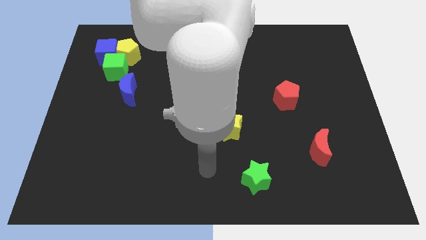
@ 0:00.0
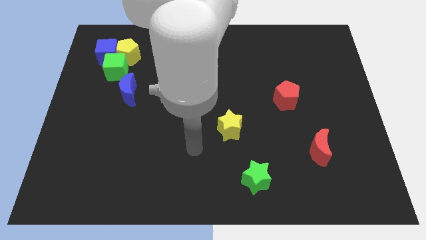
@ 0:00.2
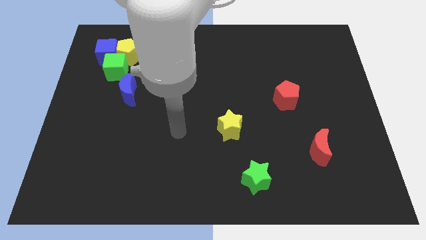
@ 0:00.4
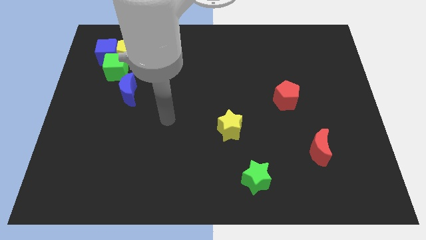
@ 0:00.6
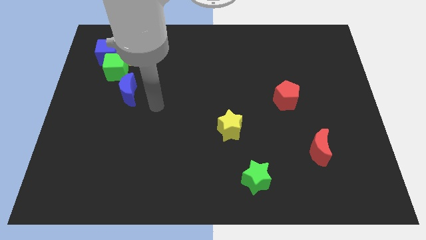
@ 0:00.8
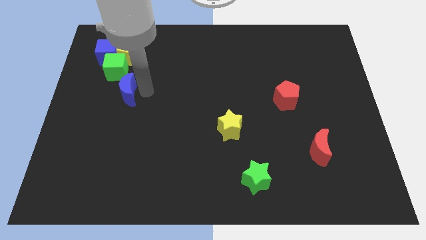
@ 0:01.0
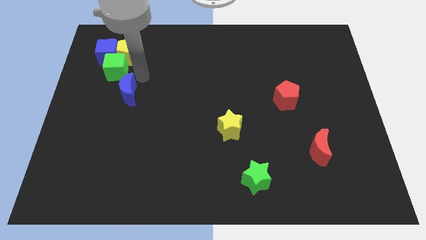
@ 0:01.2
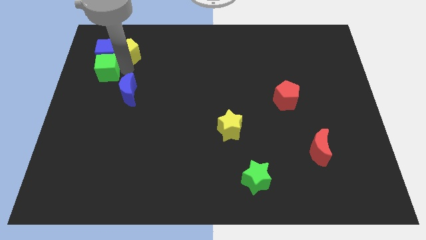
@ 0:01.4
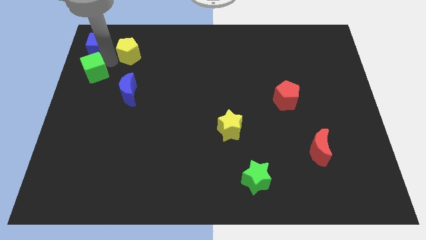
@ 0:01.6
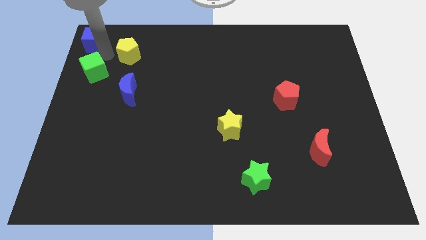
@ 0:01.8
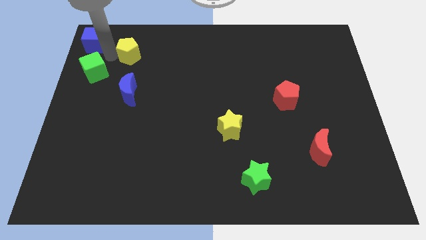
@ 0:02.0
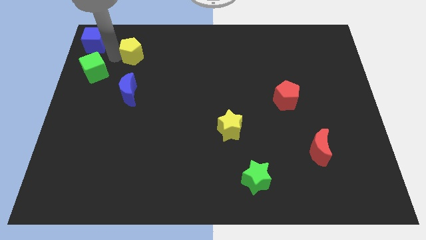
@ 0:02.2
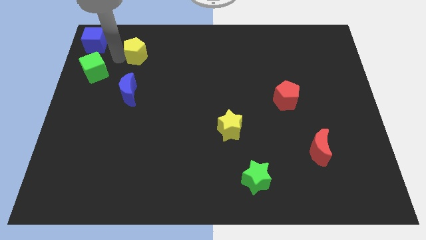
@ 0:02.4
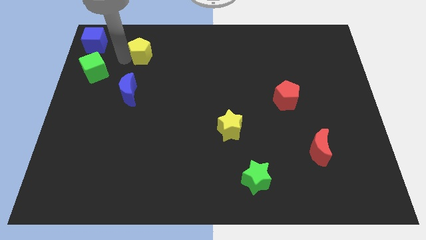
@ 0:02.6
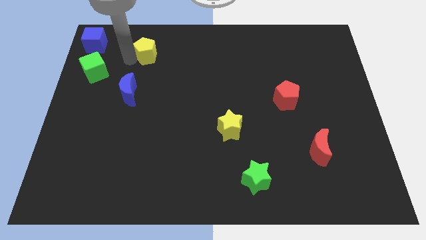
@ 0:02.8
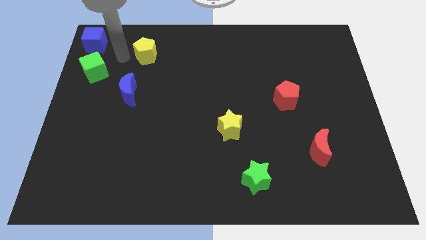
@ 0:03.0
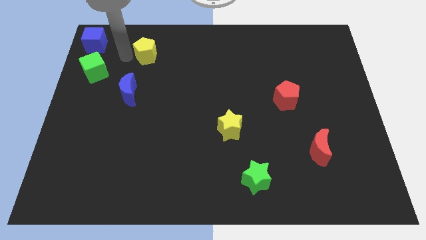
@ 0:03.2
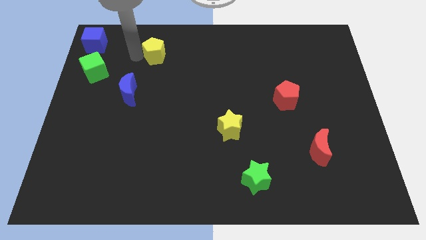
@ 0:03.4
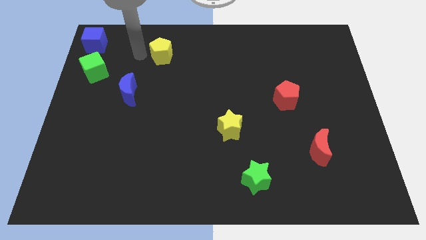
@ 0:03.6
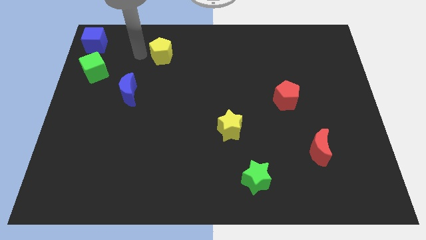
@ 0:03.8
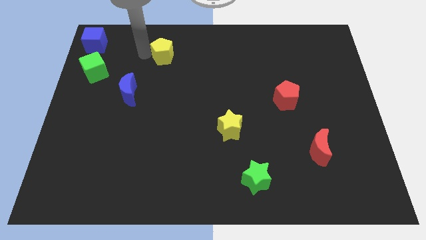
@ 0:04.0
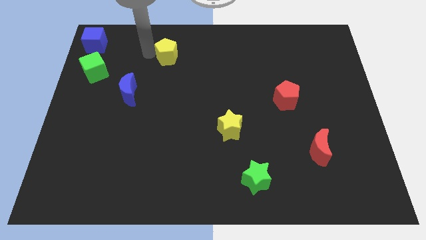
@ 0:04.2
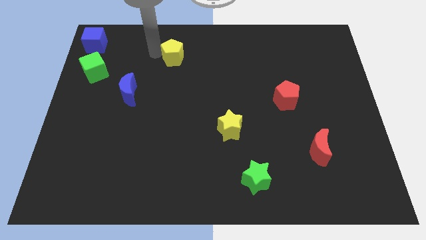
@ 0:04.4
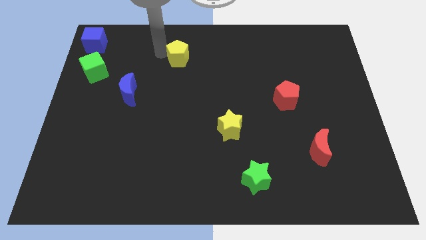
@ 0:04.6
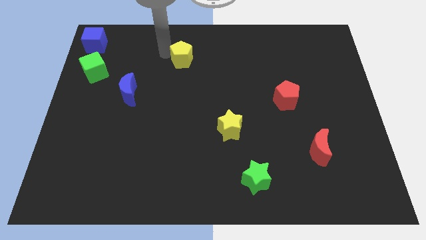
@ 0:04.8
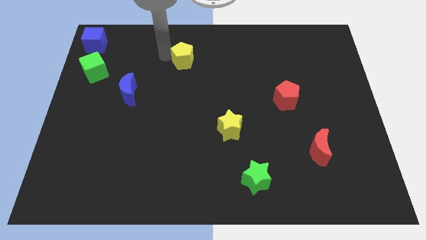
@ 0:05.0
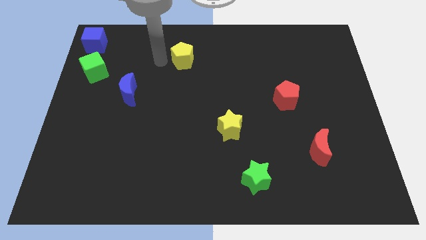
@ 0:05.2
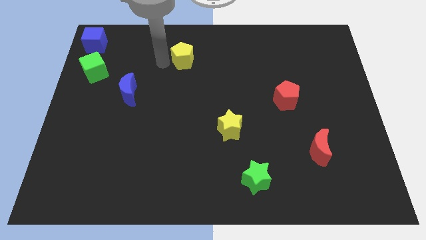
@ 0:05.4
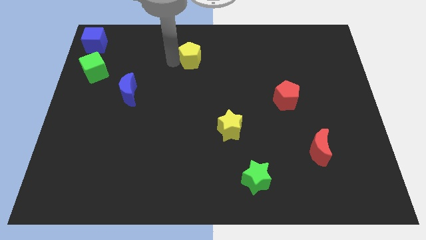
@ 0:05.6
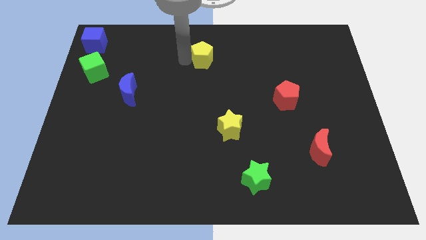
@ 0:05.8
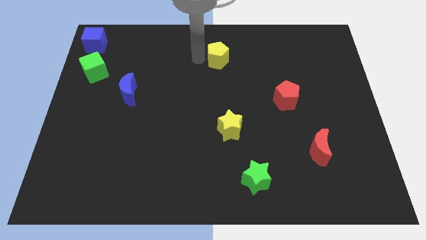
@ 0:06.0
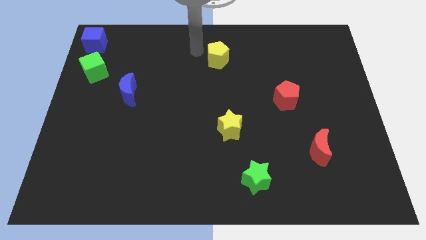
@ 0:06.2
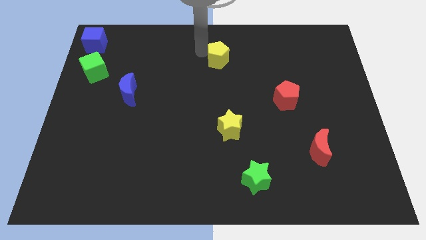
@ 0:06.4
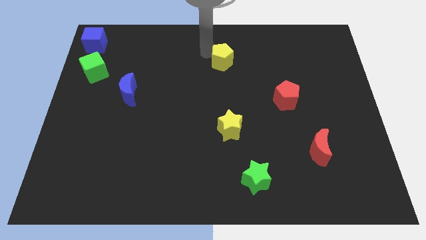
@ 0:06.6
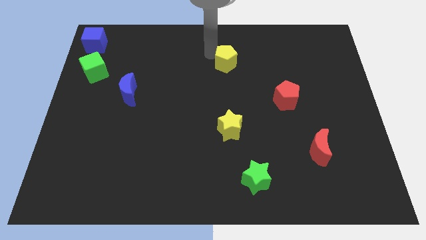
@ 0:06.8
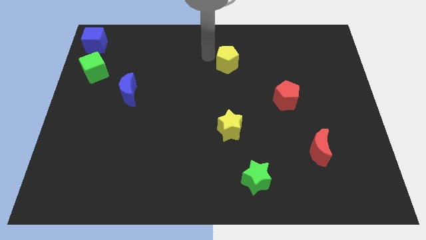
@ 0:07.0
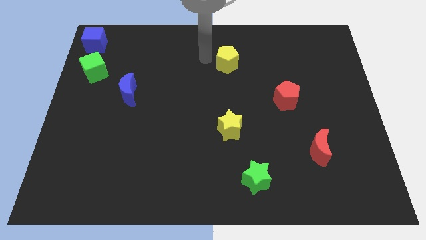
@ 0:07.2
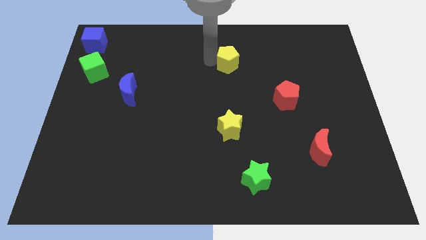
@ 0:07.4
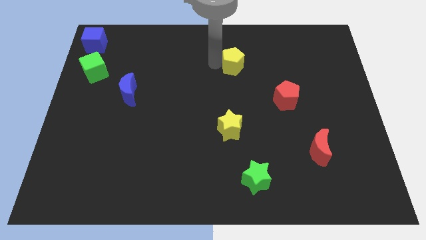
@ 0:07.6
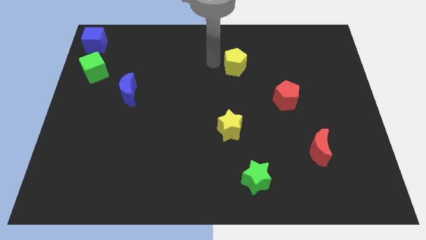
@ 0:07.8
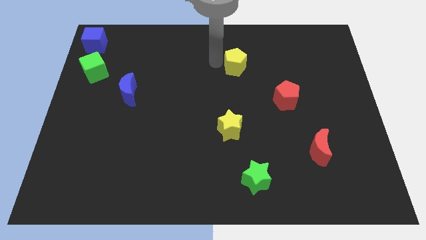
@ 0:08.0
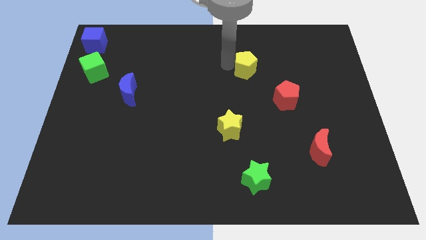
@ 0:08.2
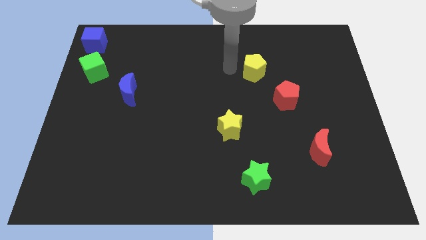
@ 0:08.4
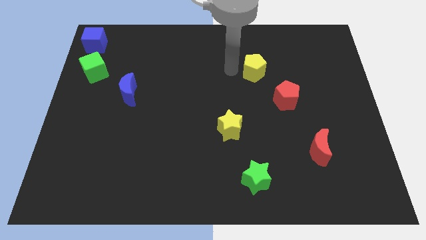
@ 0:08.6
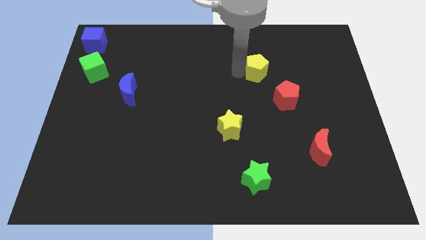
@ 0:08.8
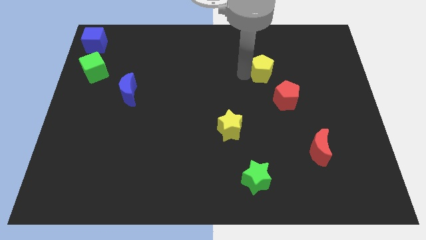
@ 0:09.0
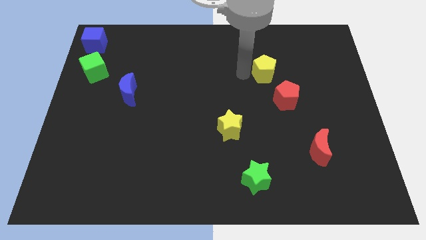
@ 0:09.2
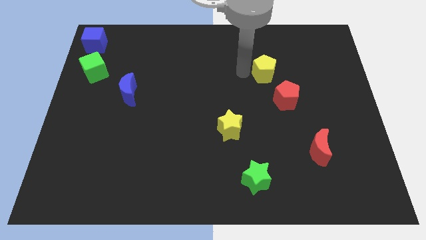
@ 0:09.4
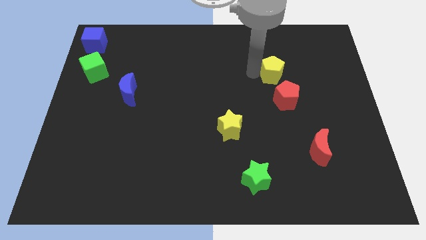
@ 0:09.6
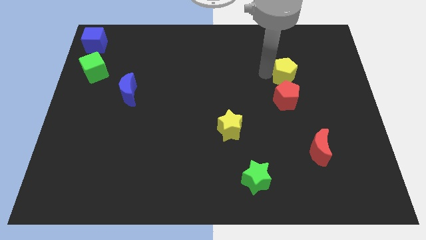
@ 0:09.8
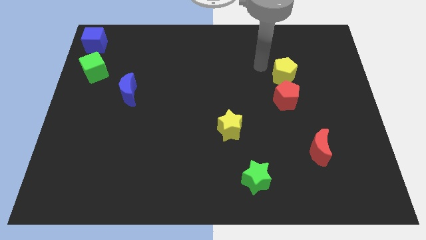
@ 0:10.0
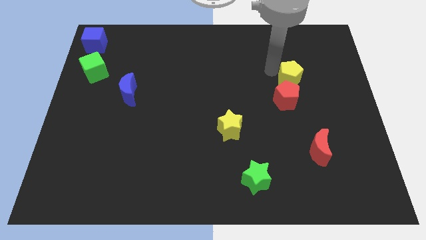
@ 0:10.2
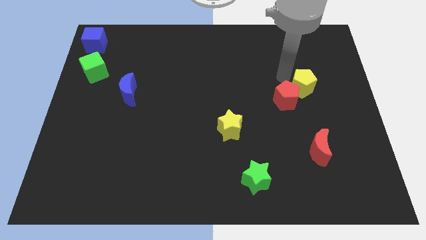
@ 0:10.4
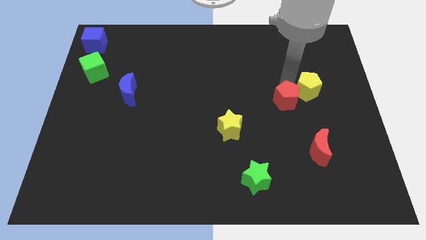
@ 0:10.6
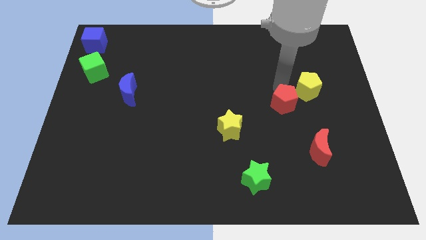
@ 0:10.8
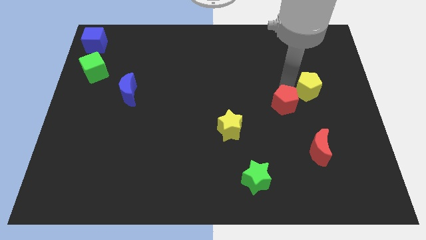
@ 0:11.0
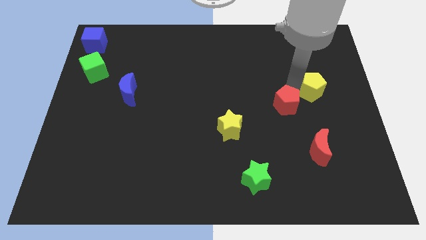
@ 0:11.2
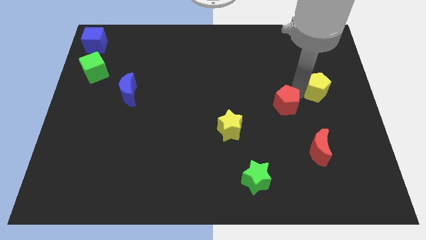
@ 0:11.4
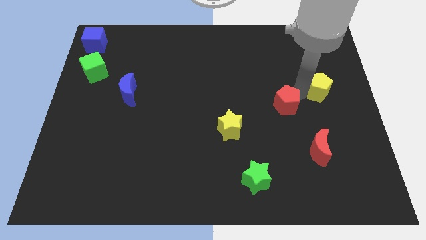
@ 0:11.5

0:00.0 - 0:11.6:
move the yellow pentagon to the right side of the board
